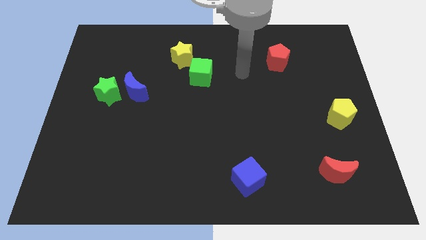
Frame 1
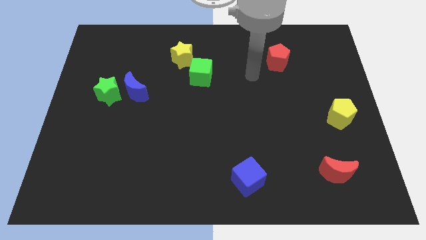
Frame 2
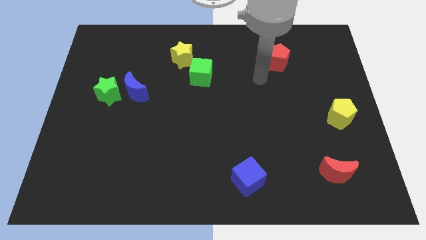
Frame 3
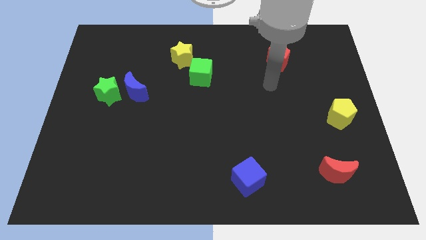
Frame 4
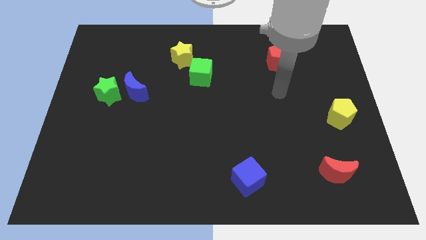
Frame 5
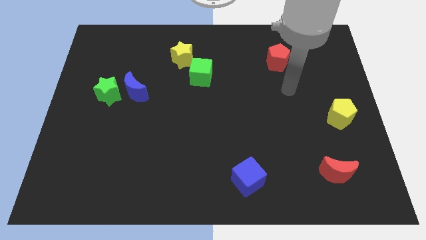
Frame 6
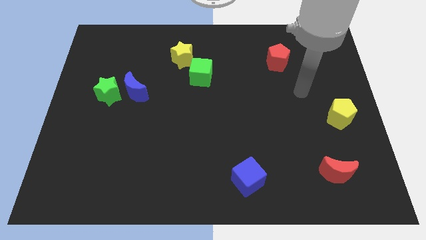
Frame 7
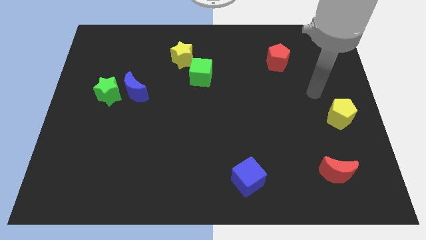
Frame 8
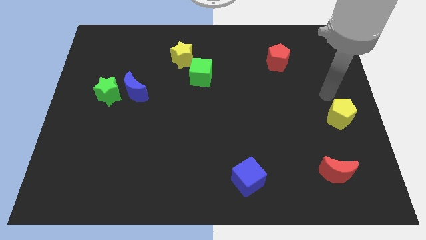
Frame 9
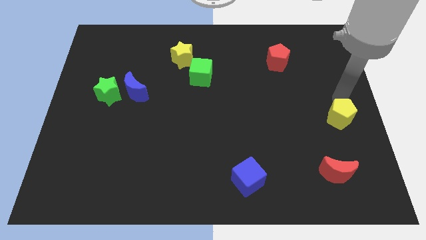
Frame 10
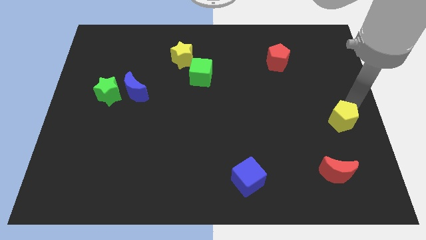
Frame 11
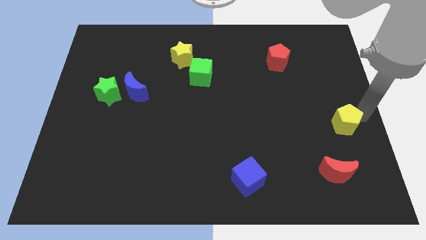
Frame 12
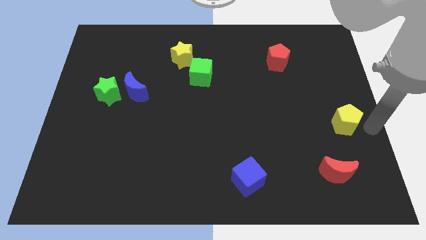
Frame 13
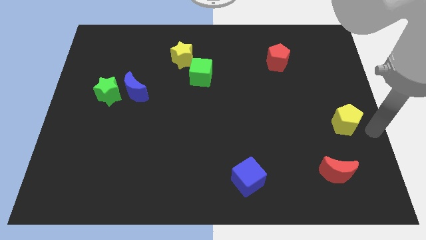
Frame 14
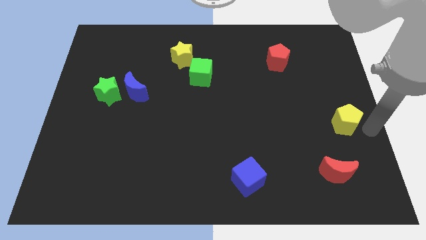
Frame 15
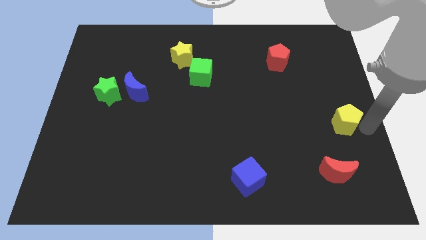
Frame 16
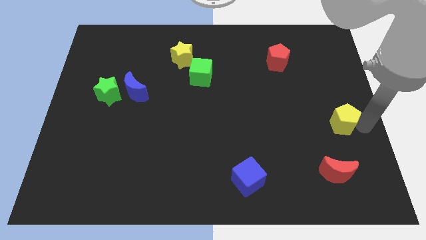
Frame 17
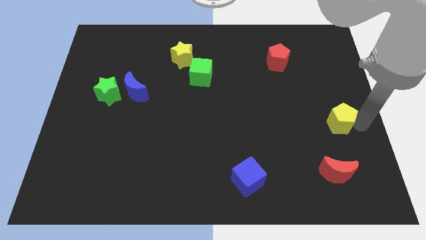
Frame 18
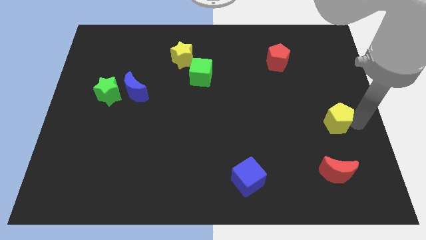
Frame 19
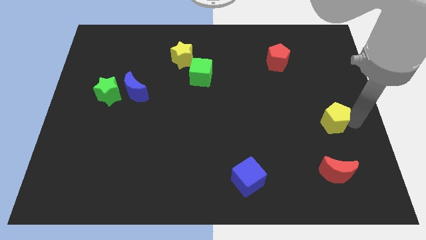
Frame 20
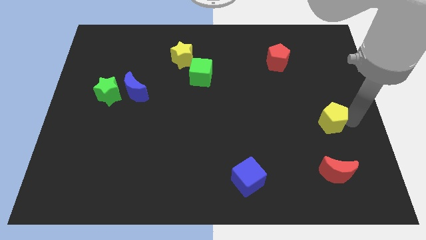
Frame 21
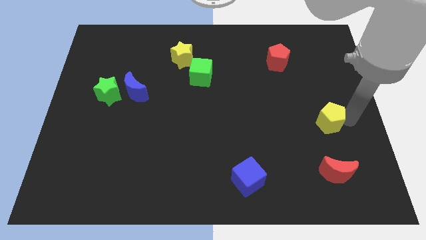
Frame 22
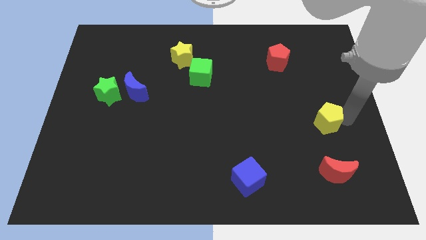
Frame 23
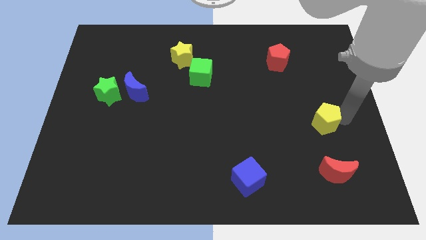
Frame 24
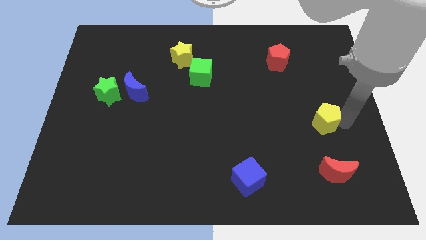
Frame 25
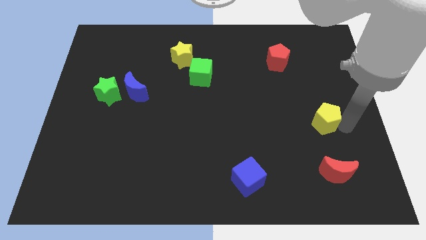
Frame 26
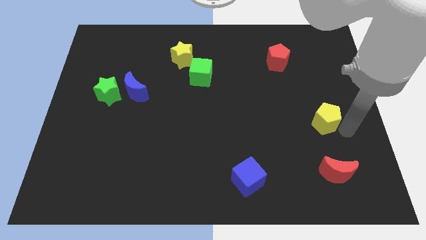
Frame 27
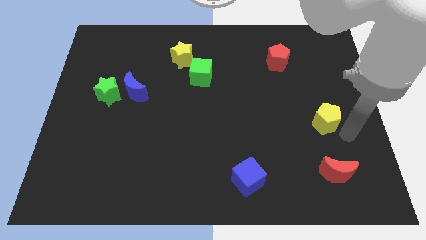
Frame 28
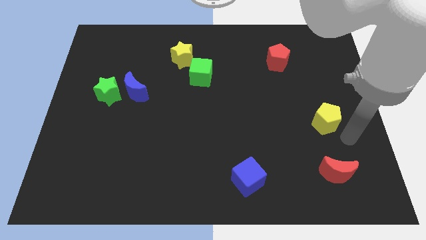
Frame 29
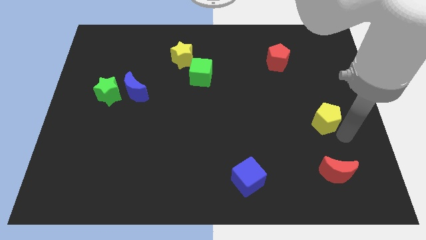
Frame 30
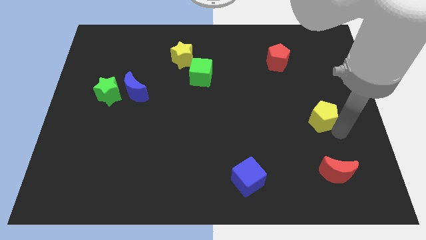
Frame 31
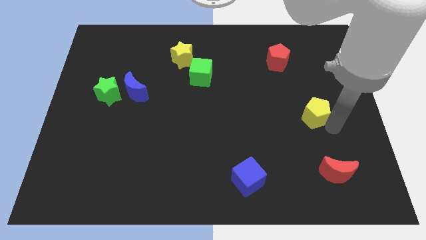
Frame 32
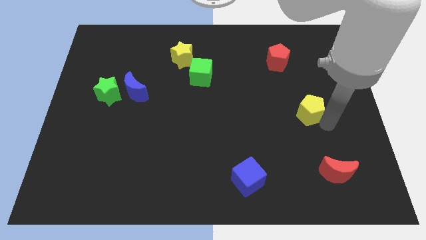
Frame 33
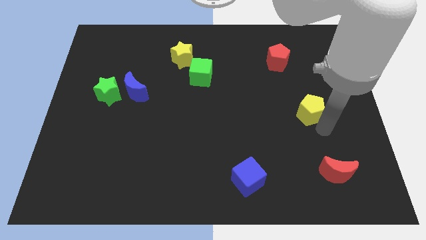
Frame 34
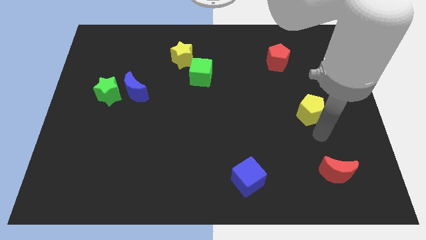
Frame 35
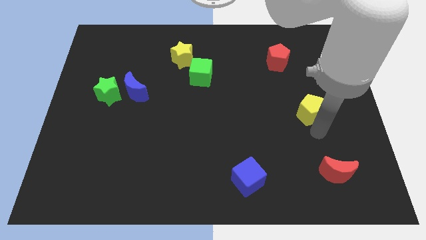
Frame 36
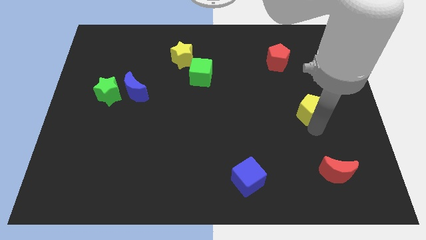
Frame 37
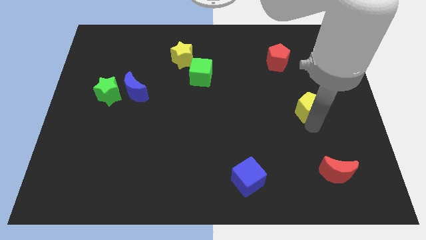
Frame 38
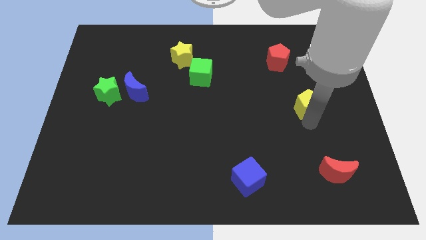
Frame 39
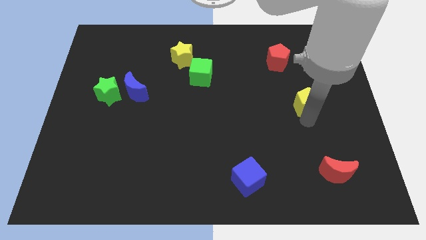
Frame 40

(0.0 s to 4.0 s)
slide the yellow pentagon slightly upwards and then to the left

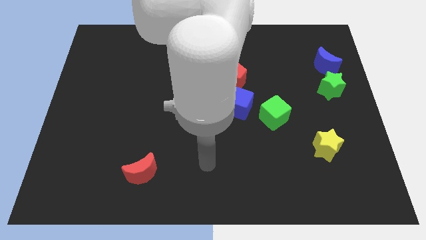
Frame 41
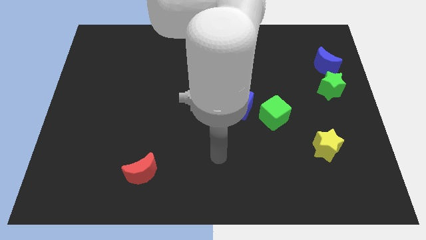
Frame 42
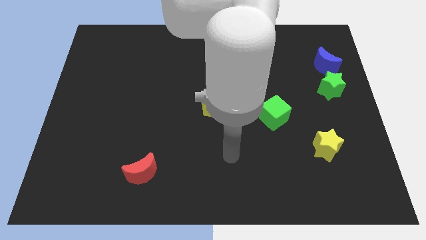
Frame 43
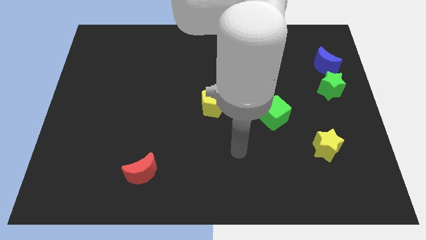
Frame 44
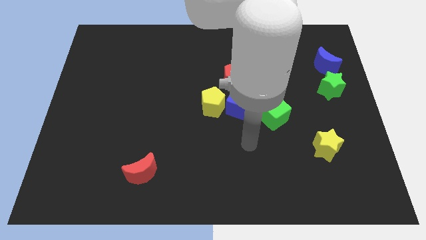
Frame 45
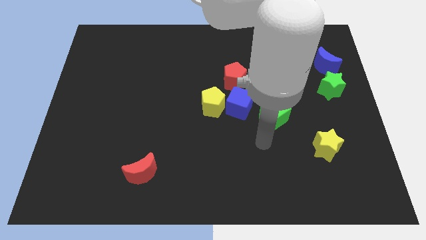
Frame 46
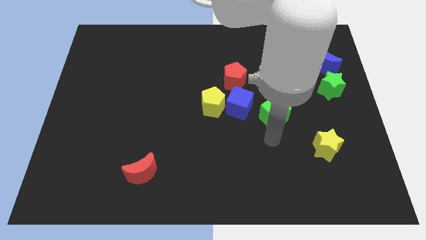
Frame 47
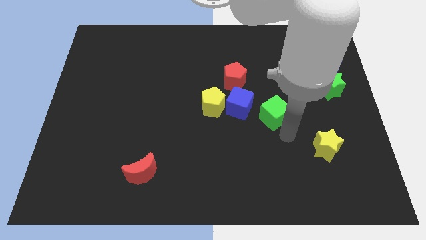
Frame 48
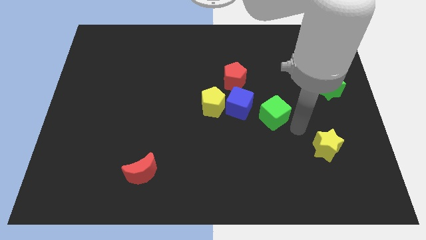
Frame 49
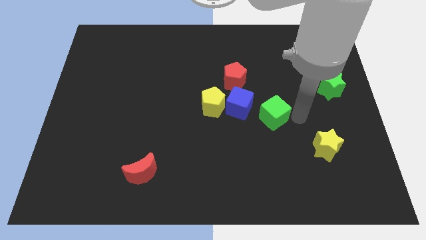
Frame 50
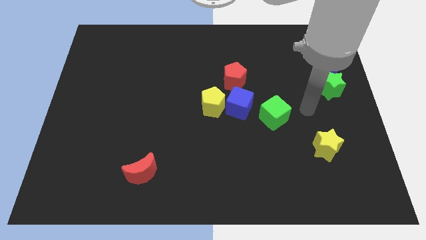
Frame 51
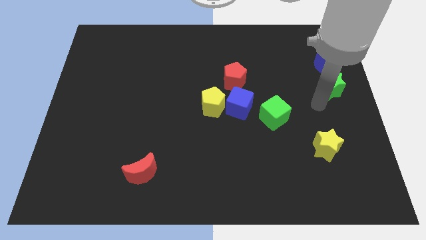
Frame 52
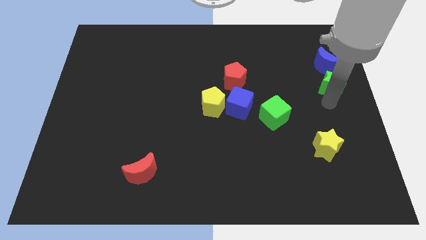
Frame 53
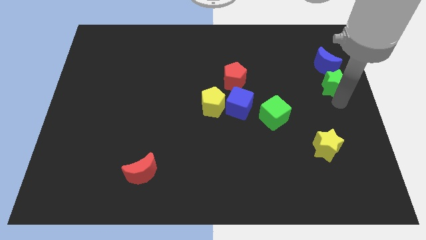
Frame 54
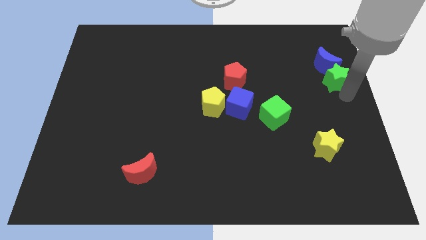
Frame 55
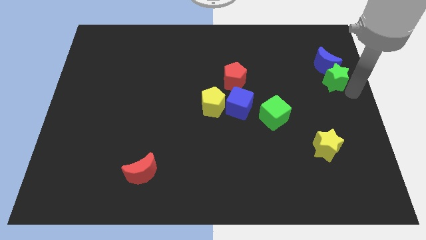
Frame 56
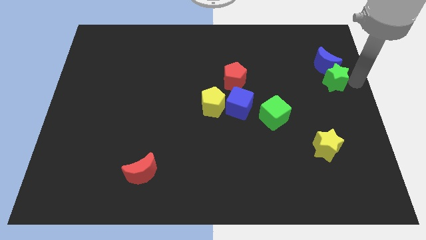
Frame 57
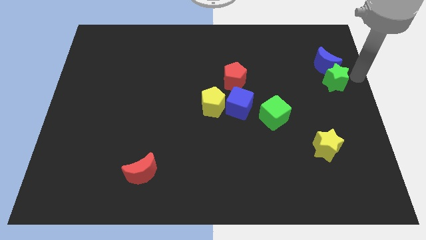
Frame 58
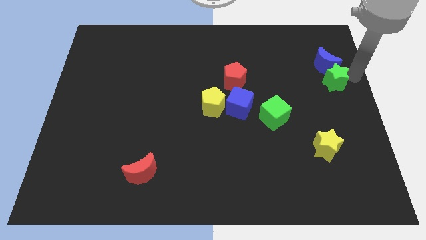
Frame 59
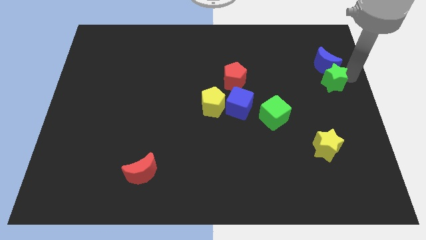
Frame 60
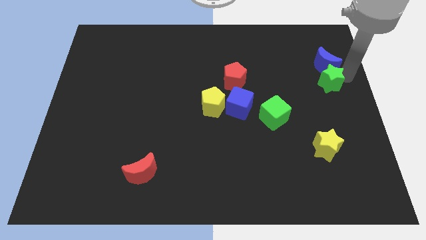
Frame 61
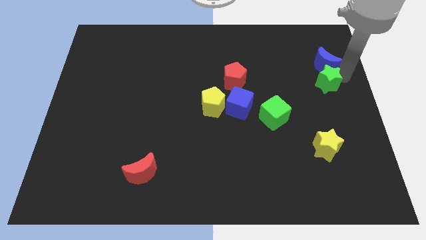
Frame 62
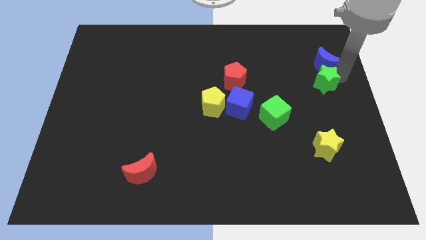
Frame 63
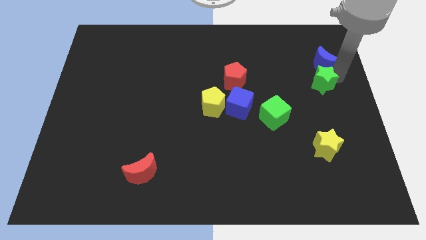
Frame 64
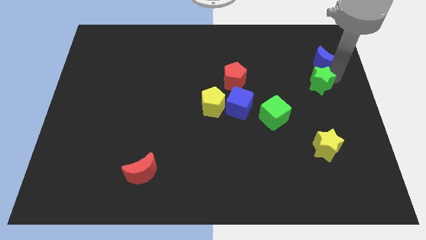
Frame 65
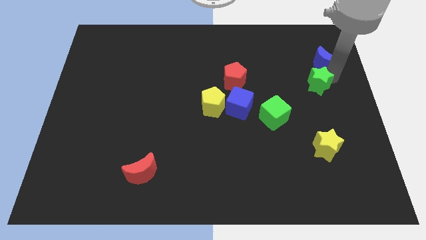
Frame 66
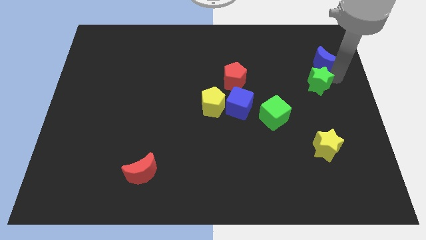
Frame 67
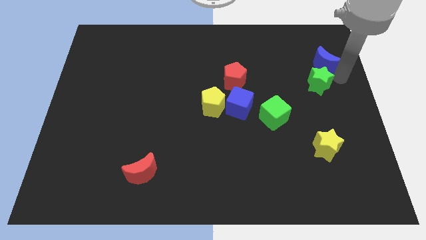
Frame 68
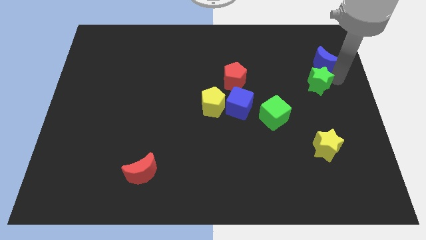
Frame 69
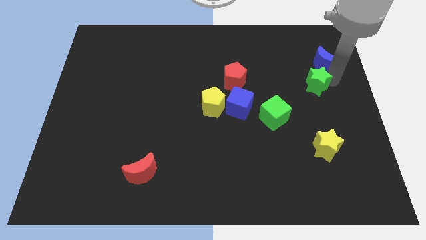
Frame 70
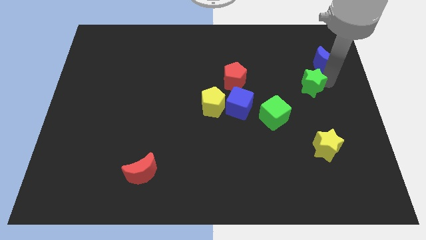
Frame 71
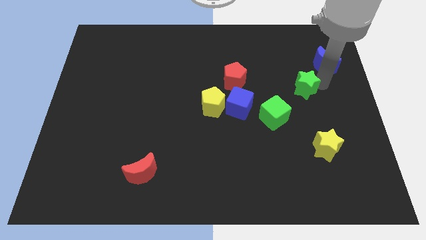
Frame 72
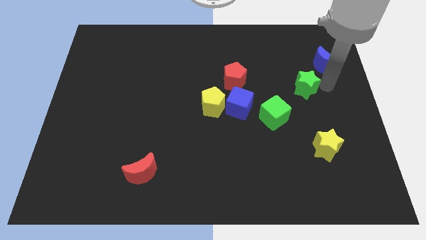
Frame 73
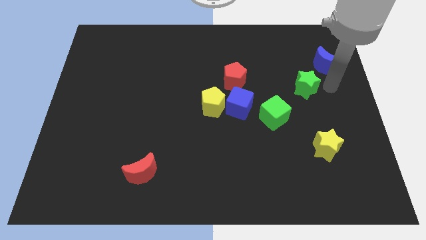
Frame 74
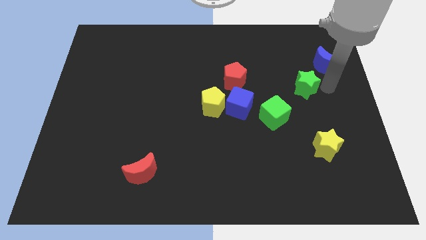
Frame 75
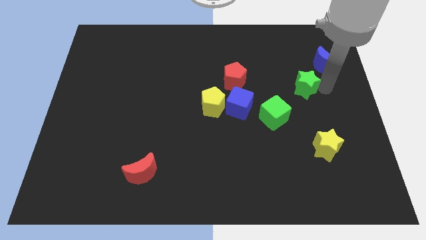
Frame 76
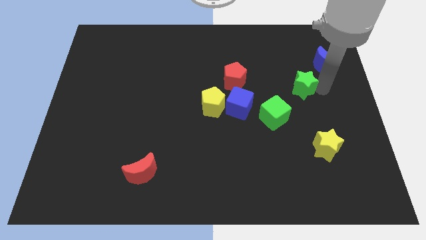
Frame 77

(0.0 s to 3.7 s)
slightly slide the green star left

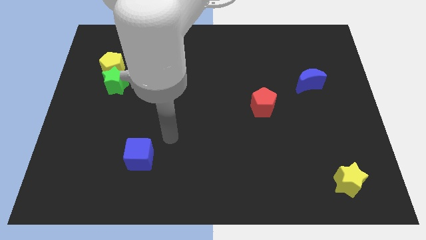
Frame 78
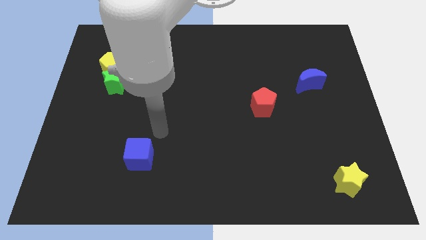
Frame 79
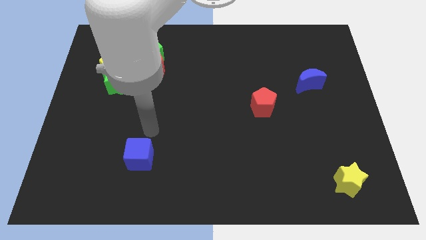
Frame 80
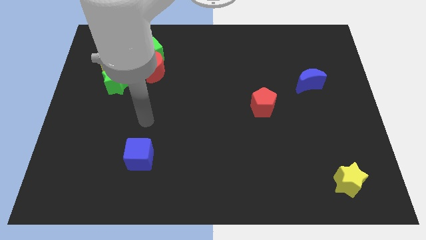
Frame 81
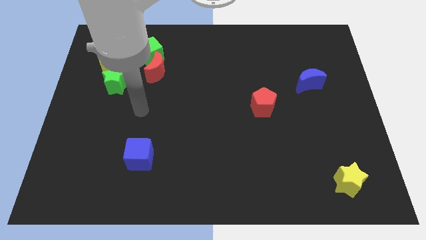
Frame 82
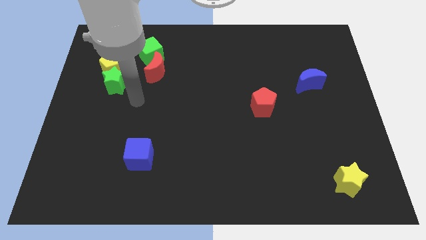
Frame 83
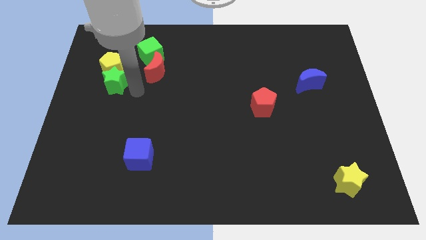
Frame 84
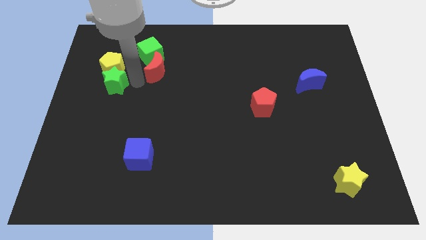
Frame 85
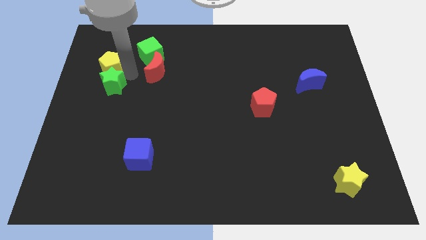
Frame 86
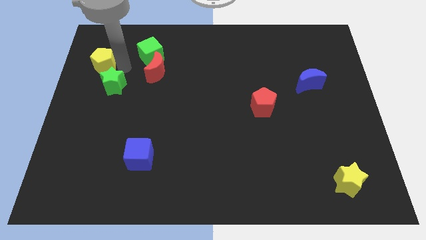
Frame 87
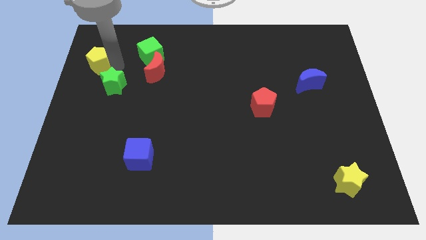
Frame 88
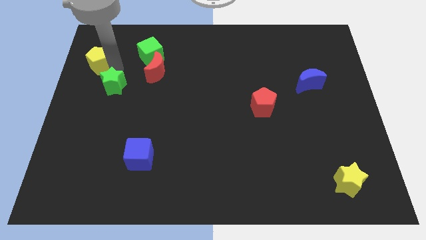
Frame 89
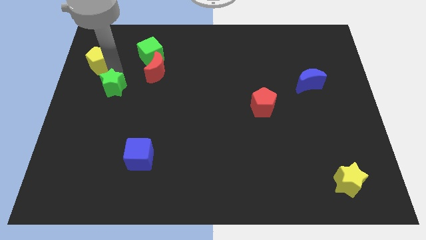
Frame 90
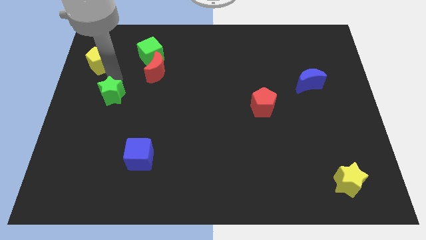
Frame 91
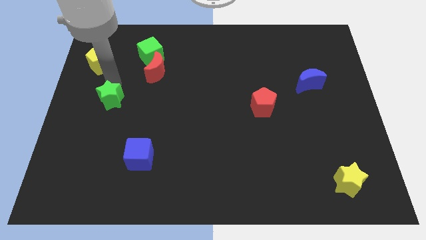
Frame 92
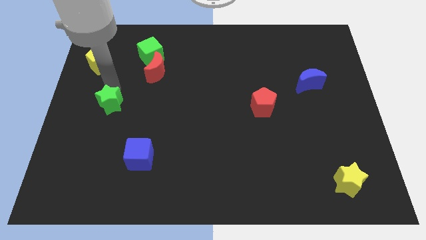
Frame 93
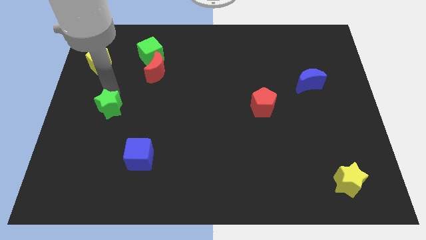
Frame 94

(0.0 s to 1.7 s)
move the green star a little bit downwards
